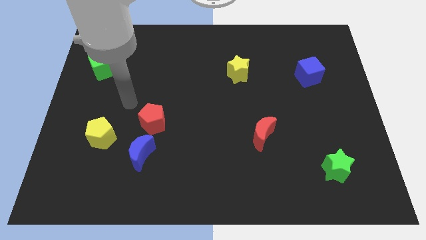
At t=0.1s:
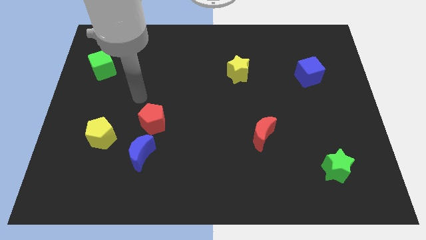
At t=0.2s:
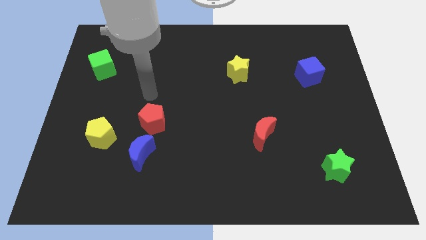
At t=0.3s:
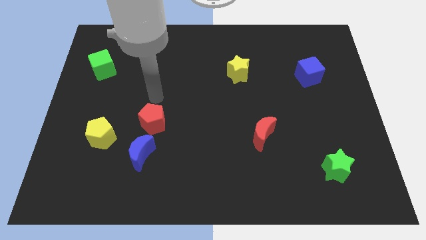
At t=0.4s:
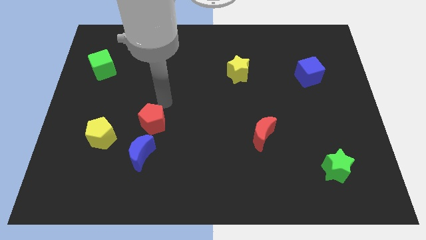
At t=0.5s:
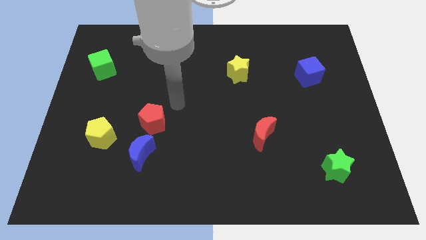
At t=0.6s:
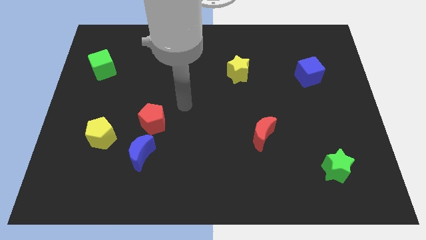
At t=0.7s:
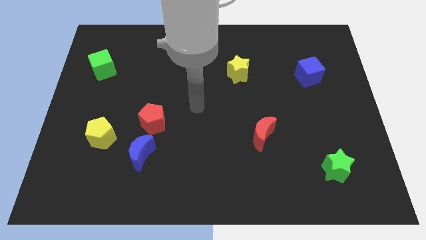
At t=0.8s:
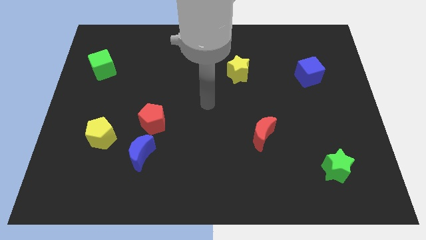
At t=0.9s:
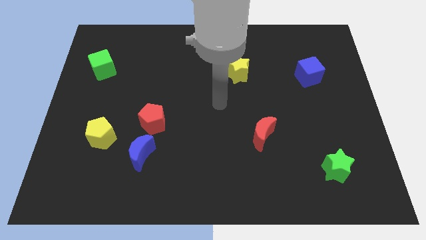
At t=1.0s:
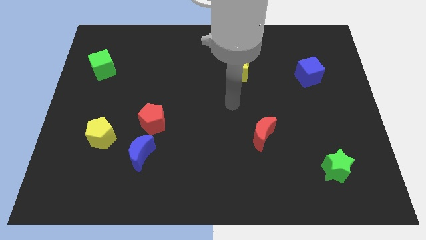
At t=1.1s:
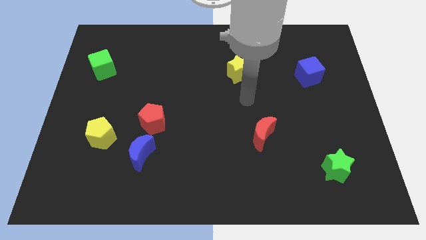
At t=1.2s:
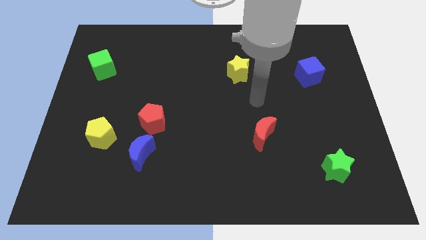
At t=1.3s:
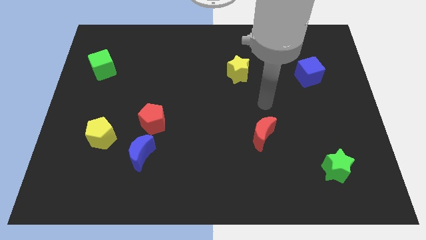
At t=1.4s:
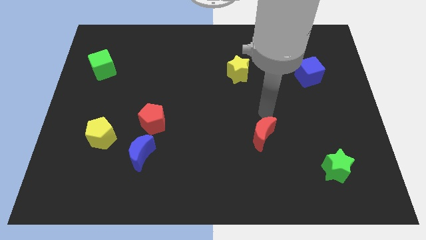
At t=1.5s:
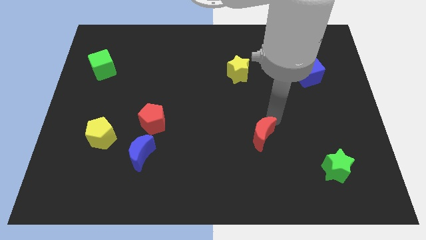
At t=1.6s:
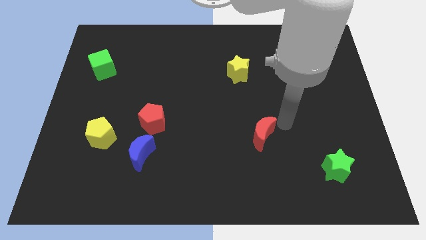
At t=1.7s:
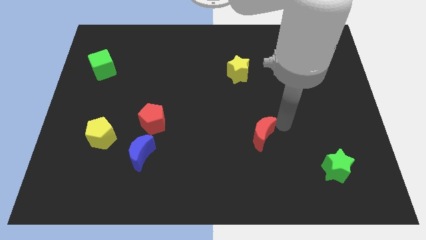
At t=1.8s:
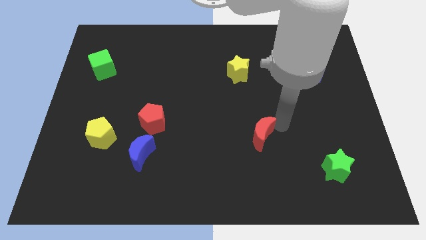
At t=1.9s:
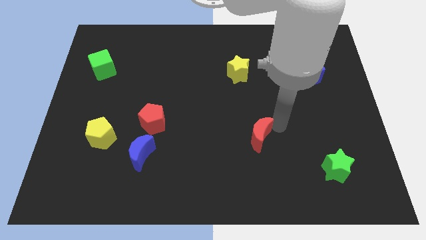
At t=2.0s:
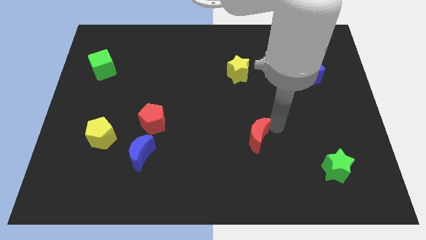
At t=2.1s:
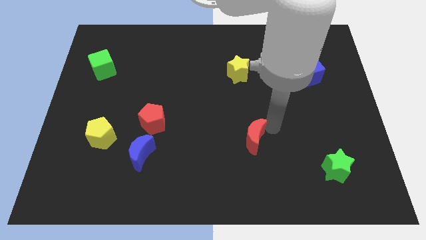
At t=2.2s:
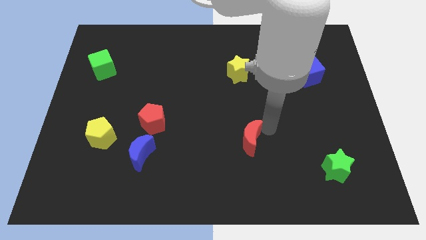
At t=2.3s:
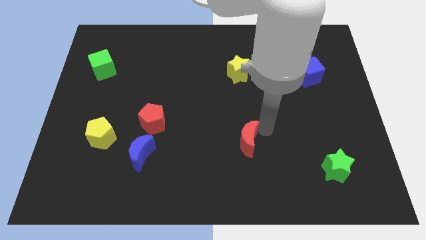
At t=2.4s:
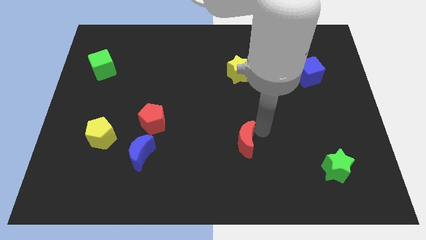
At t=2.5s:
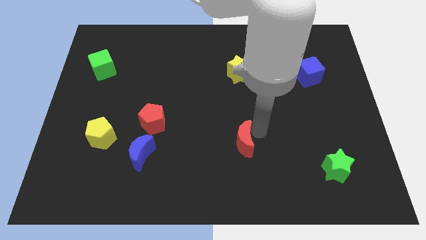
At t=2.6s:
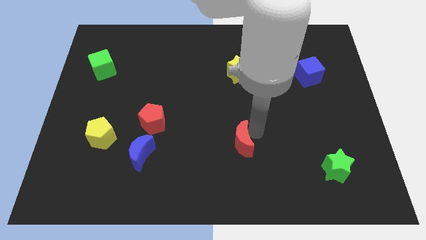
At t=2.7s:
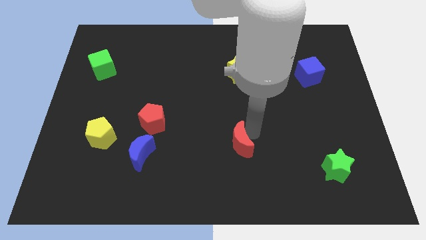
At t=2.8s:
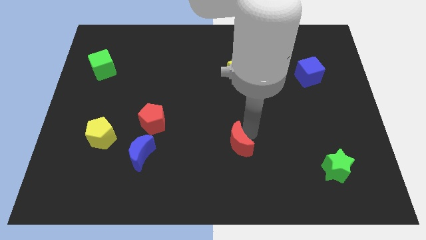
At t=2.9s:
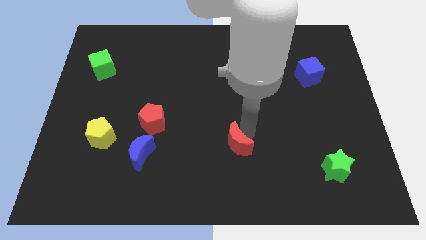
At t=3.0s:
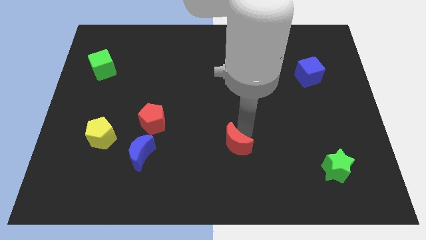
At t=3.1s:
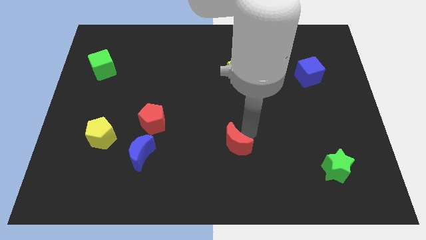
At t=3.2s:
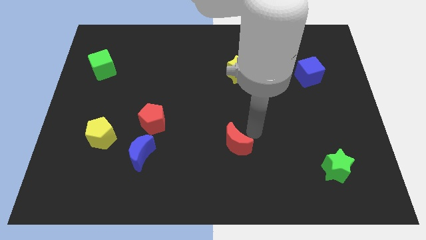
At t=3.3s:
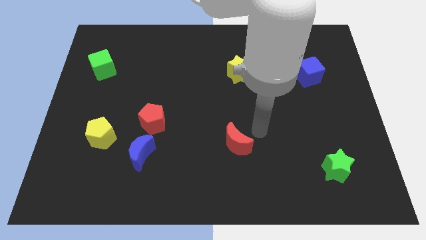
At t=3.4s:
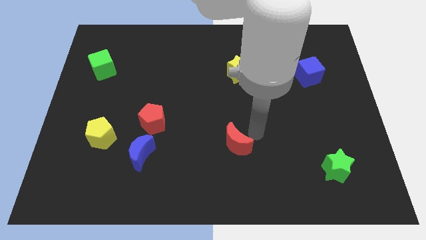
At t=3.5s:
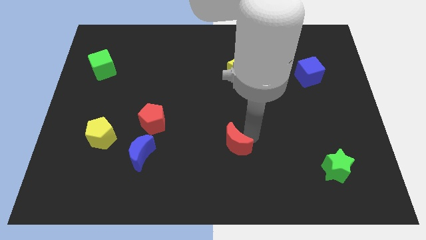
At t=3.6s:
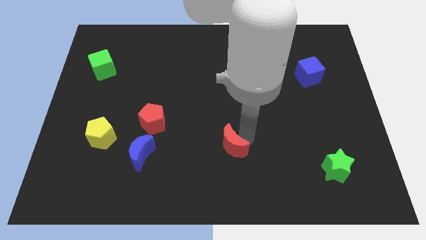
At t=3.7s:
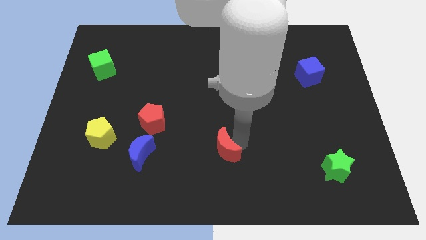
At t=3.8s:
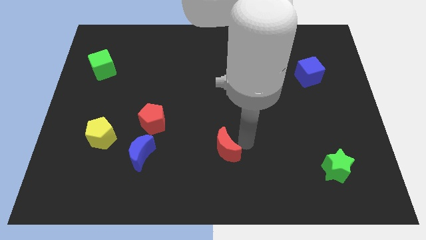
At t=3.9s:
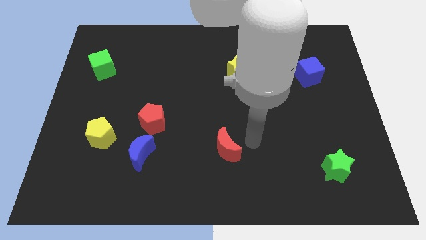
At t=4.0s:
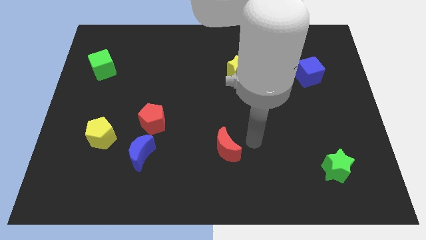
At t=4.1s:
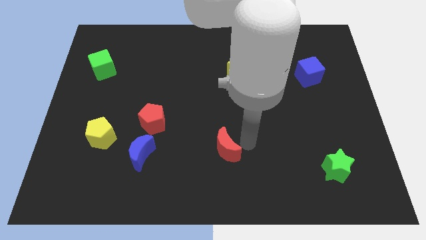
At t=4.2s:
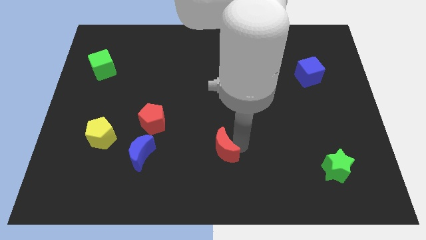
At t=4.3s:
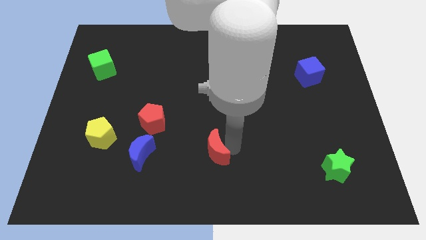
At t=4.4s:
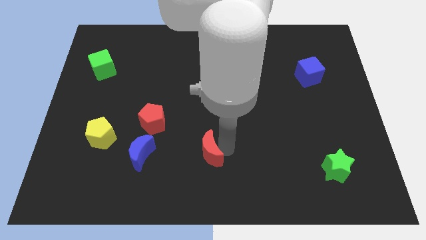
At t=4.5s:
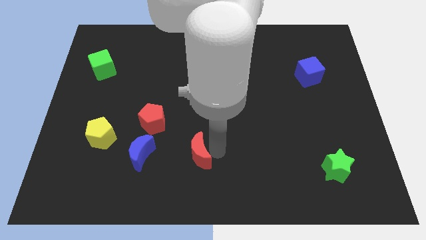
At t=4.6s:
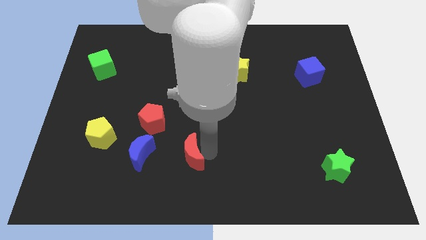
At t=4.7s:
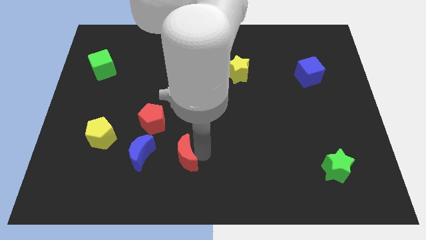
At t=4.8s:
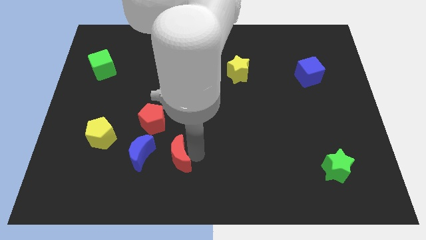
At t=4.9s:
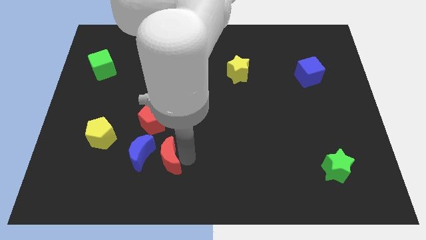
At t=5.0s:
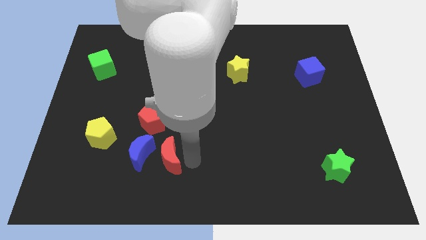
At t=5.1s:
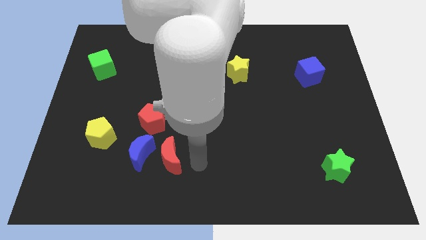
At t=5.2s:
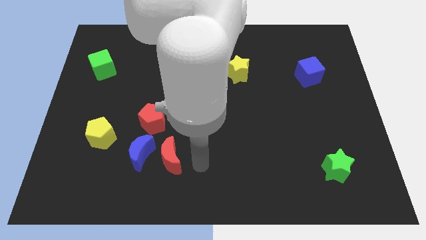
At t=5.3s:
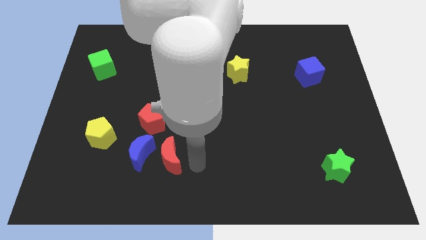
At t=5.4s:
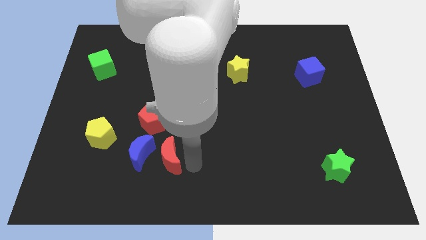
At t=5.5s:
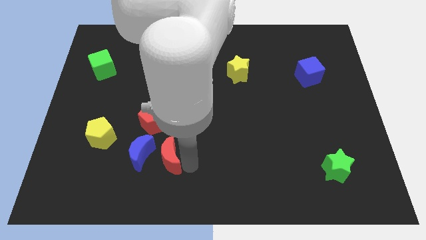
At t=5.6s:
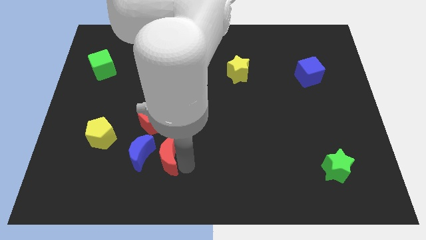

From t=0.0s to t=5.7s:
move the red moon to the blue moon

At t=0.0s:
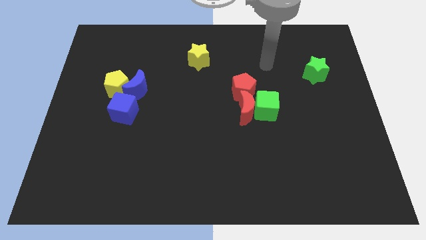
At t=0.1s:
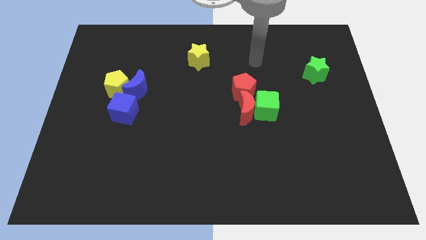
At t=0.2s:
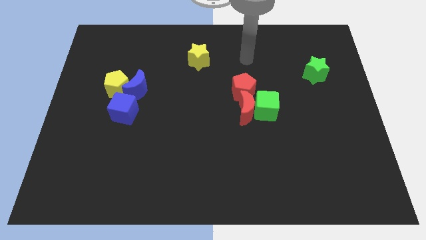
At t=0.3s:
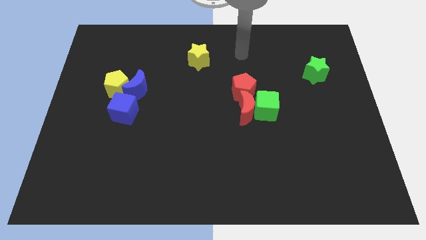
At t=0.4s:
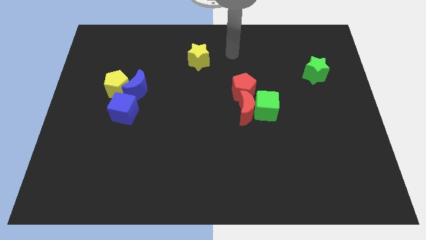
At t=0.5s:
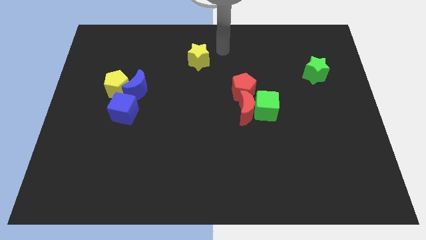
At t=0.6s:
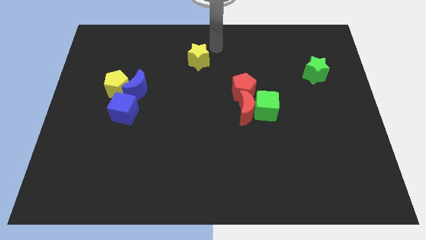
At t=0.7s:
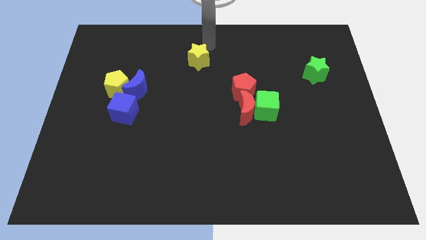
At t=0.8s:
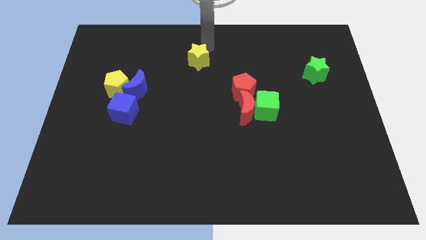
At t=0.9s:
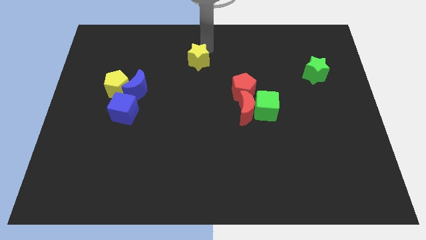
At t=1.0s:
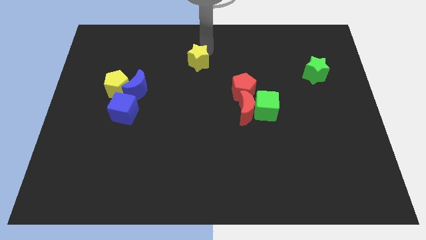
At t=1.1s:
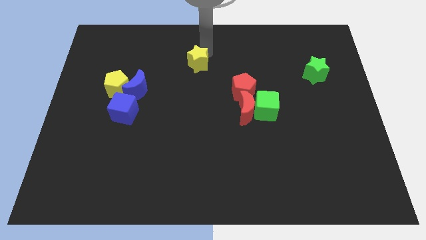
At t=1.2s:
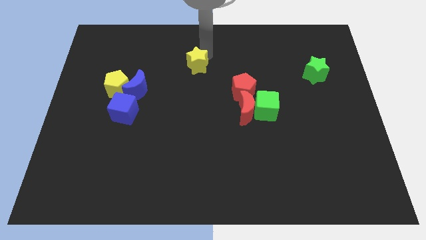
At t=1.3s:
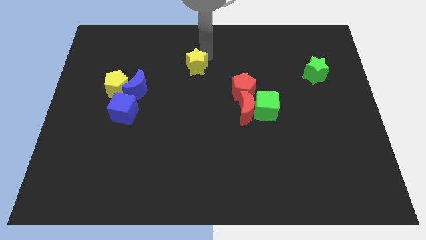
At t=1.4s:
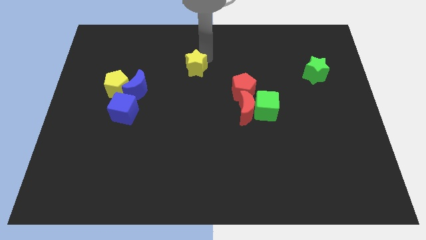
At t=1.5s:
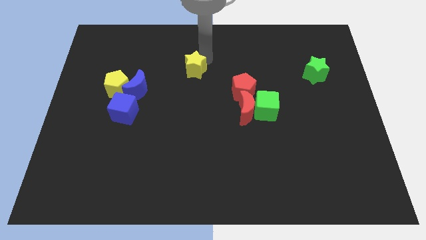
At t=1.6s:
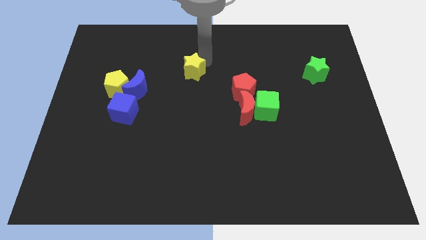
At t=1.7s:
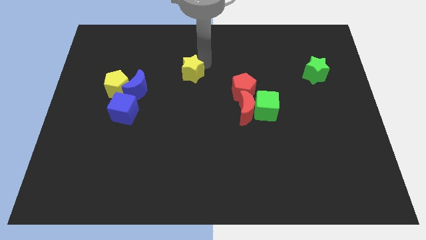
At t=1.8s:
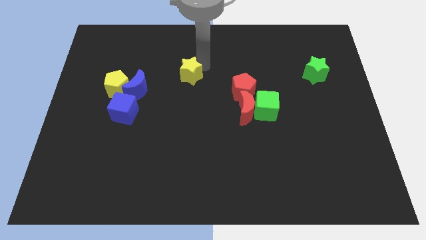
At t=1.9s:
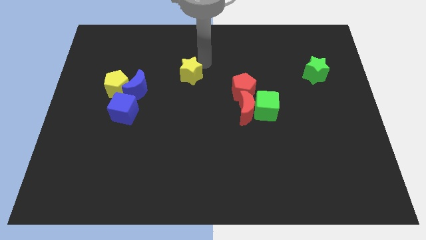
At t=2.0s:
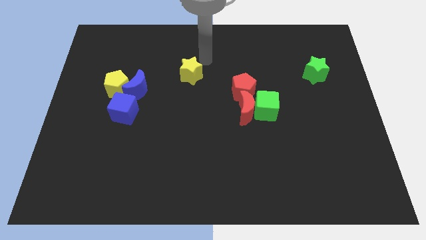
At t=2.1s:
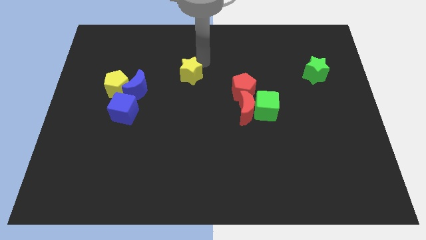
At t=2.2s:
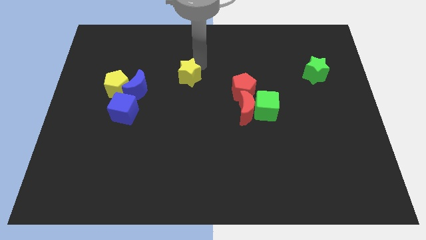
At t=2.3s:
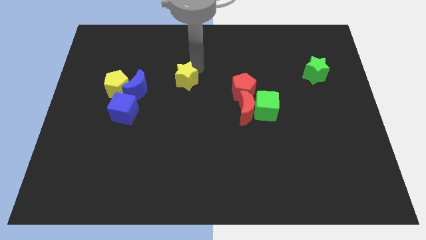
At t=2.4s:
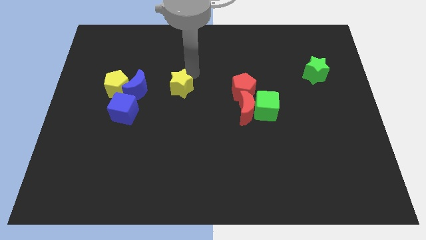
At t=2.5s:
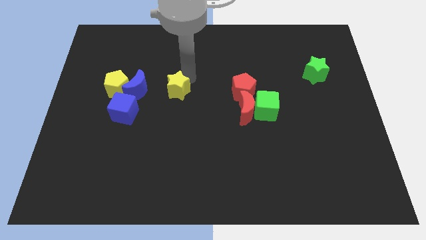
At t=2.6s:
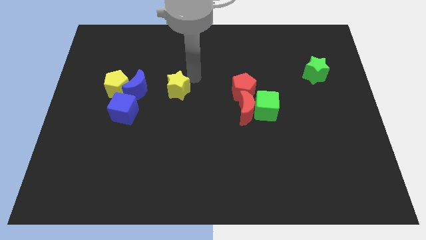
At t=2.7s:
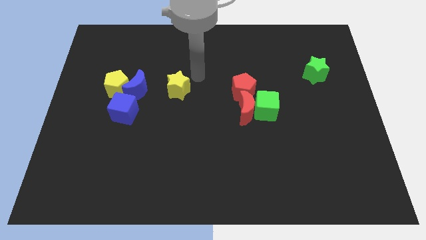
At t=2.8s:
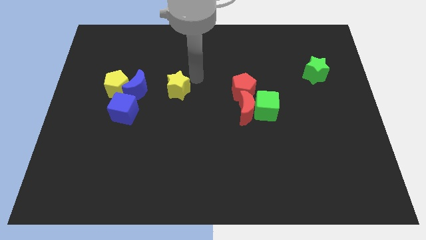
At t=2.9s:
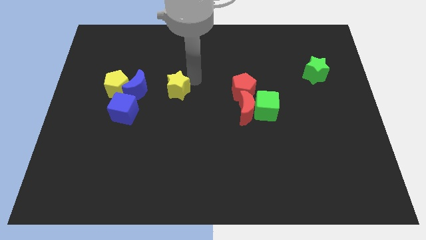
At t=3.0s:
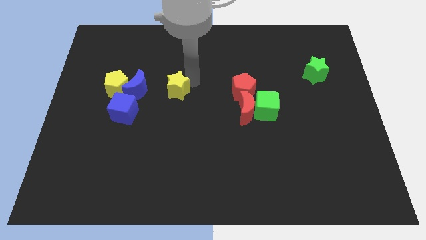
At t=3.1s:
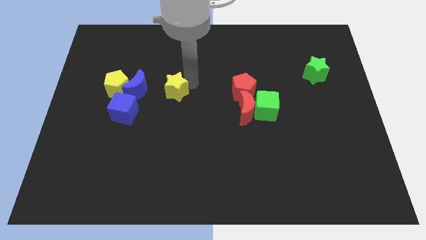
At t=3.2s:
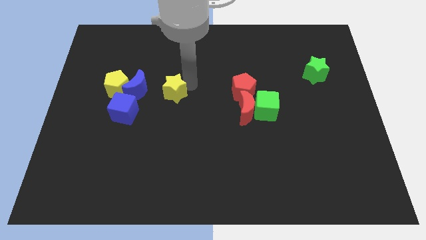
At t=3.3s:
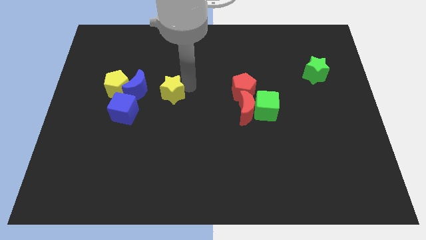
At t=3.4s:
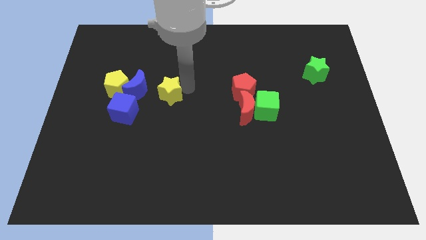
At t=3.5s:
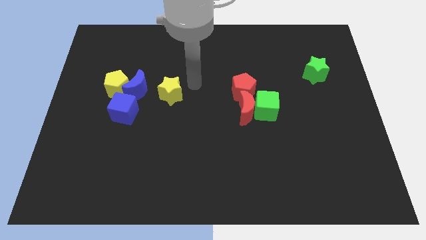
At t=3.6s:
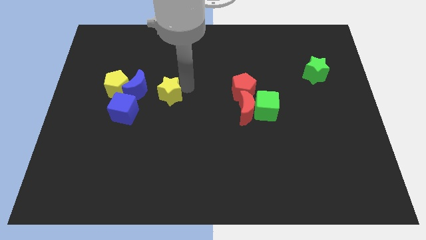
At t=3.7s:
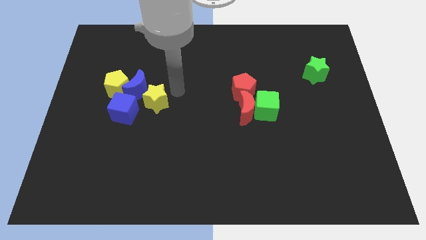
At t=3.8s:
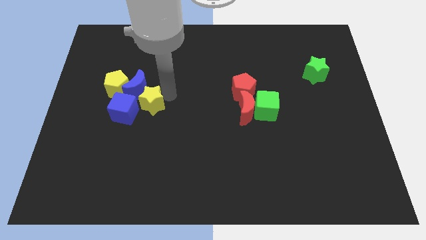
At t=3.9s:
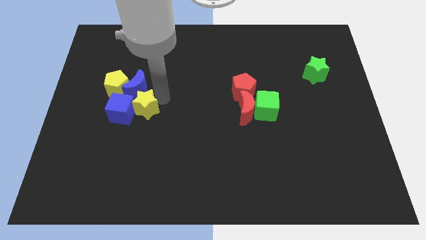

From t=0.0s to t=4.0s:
move the yellow star close to the blue cube
